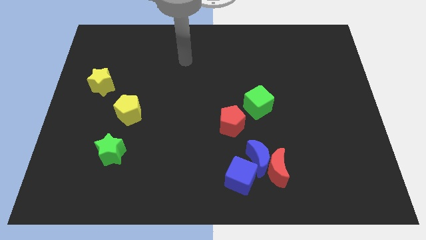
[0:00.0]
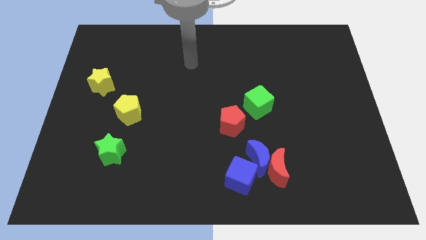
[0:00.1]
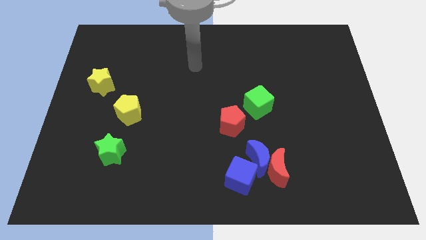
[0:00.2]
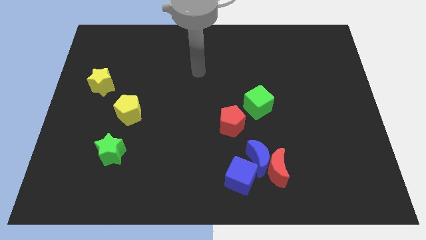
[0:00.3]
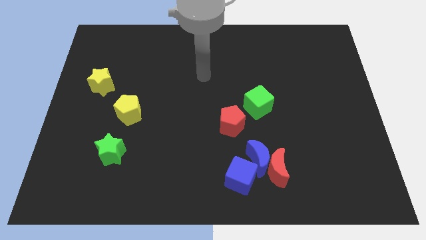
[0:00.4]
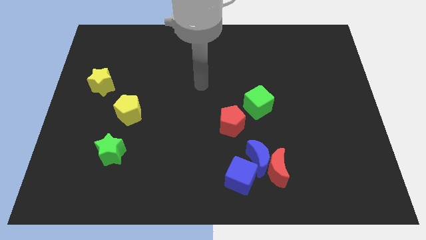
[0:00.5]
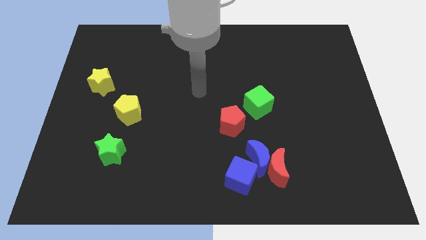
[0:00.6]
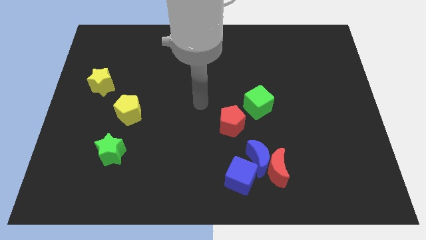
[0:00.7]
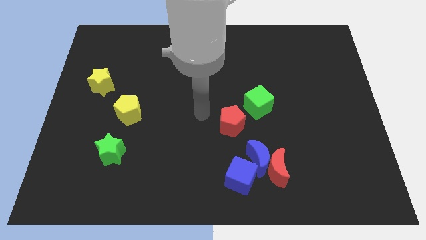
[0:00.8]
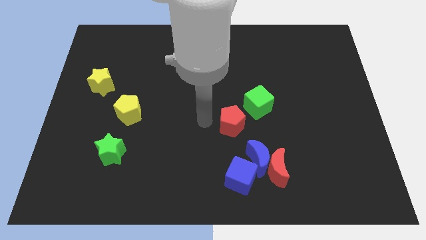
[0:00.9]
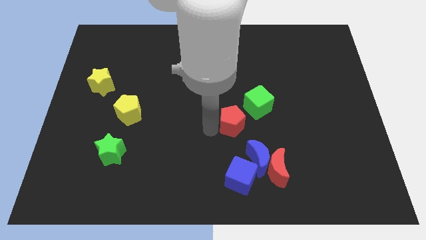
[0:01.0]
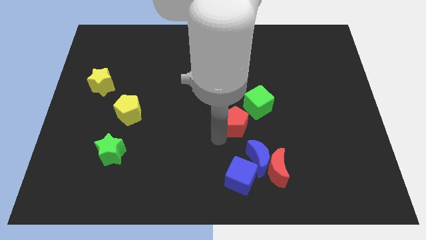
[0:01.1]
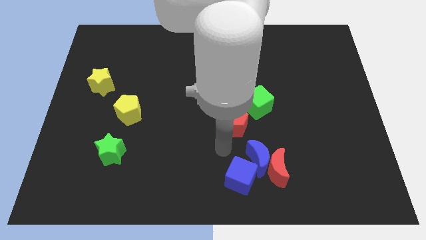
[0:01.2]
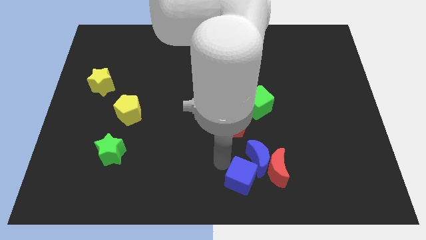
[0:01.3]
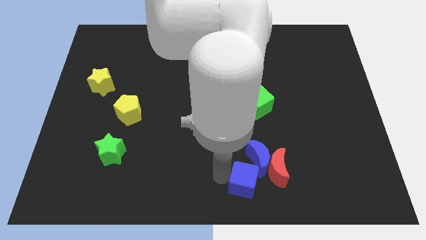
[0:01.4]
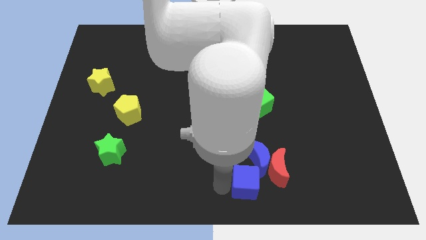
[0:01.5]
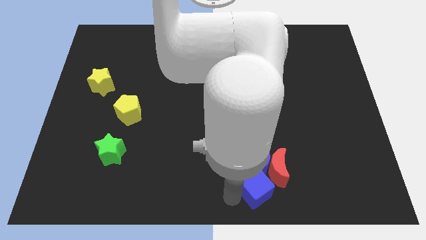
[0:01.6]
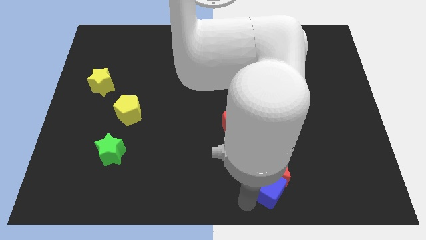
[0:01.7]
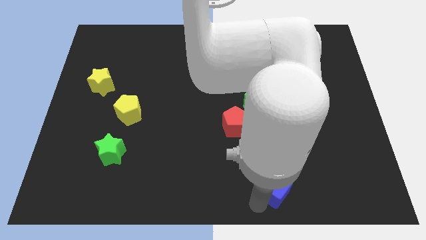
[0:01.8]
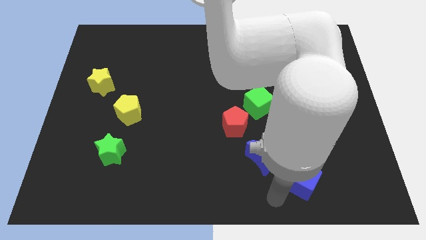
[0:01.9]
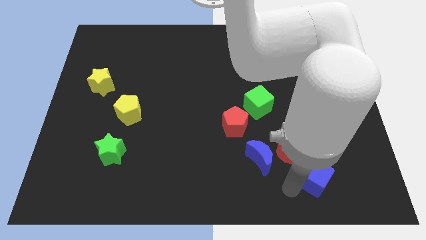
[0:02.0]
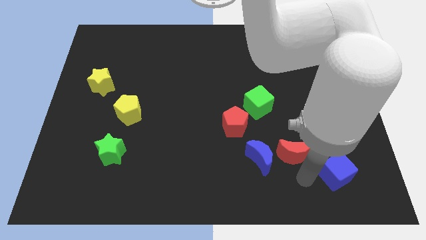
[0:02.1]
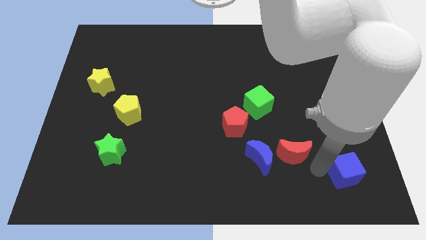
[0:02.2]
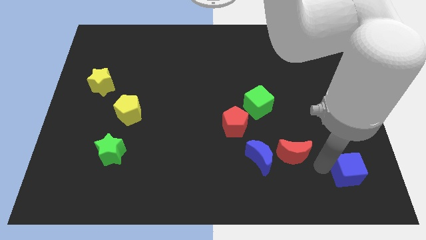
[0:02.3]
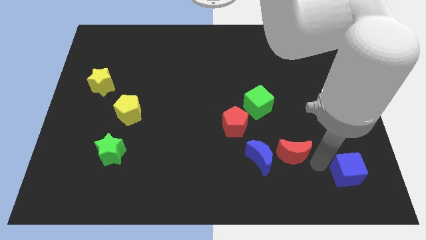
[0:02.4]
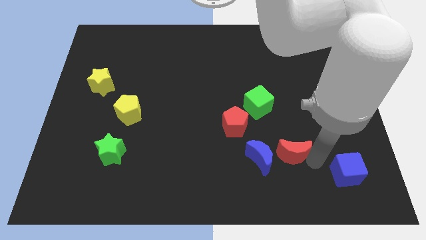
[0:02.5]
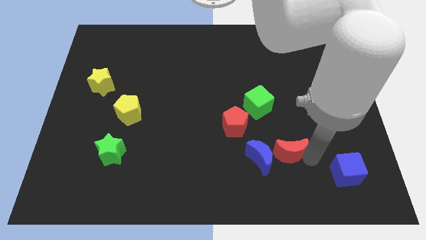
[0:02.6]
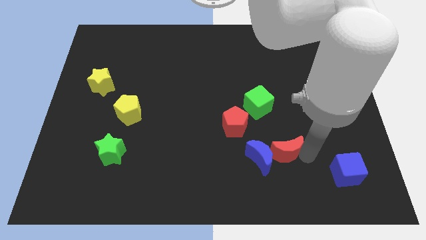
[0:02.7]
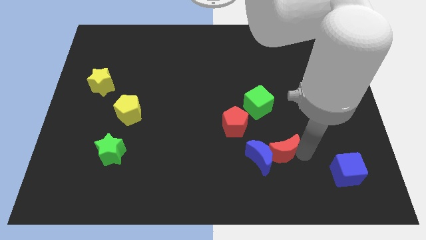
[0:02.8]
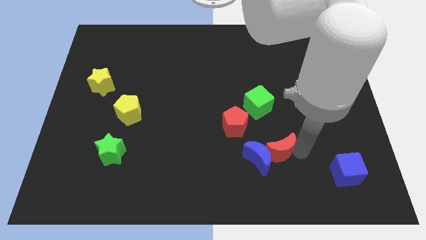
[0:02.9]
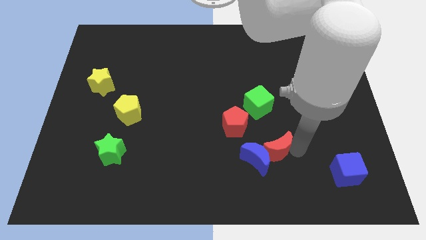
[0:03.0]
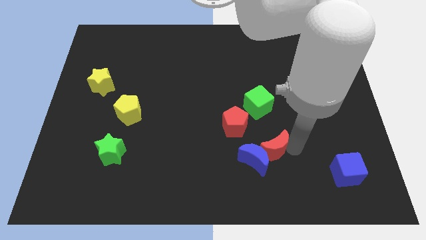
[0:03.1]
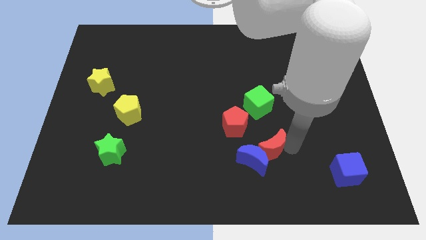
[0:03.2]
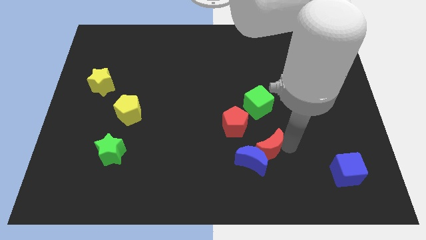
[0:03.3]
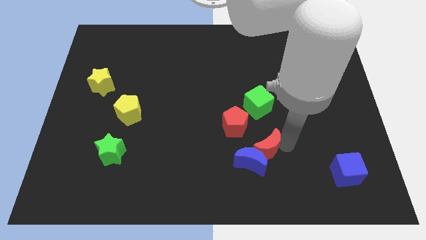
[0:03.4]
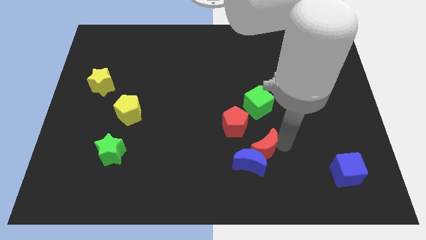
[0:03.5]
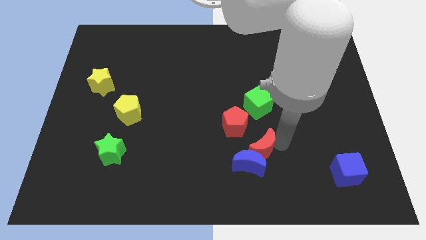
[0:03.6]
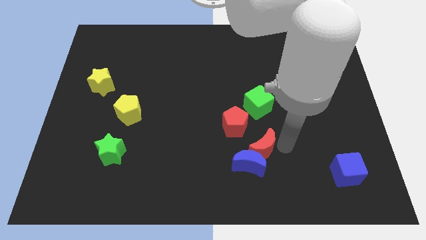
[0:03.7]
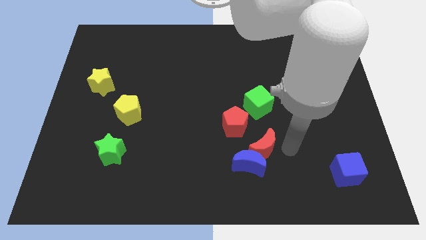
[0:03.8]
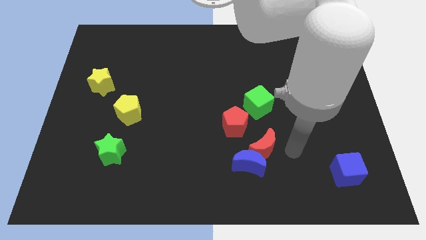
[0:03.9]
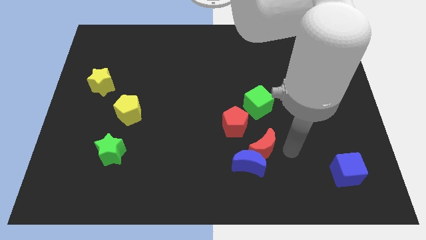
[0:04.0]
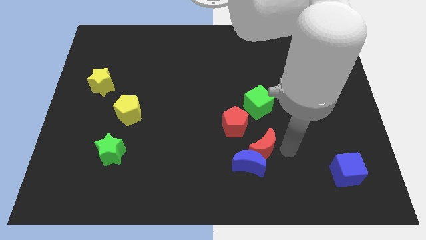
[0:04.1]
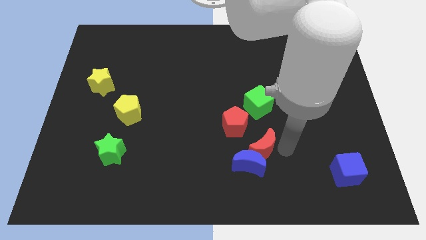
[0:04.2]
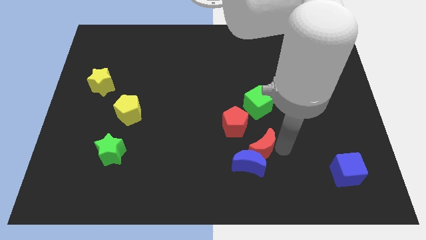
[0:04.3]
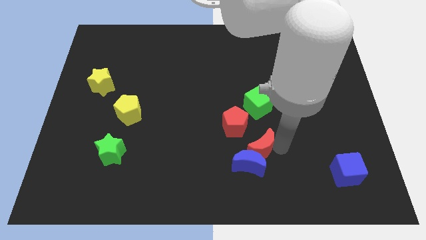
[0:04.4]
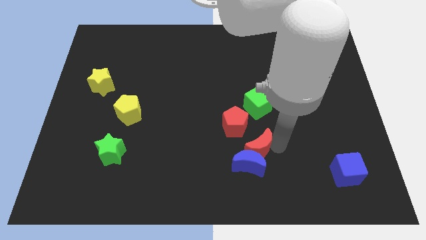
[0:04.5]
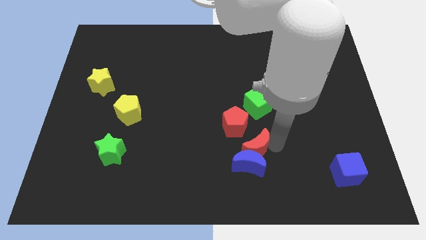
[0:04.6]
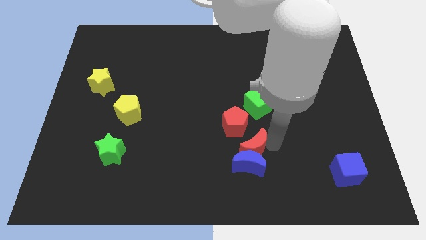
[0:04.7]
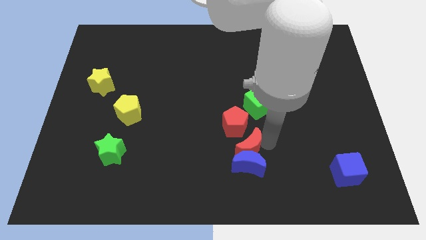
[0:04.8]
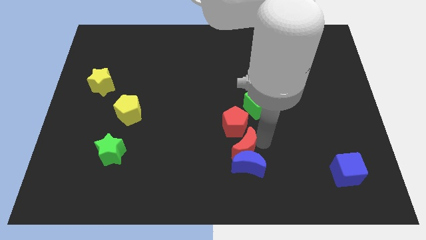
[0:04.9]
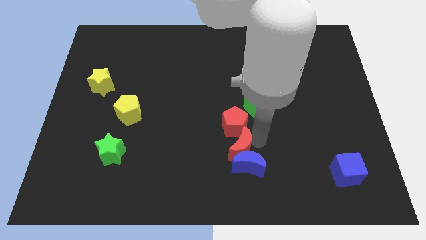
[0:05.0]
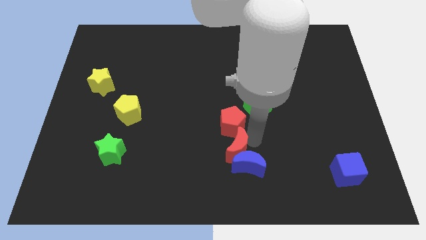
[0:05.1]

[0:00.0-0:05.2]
slide the red moon just left of the blue moon
